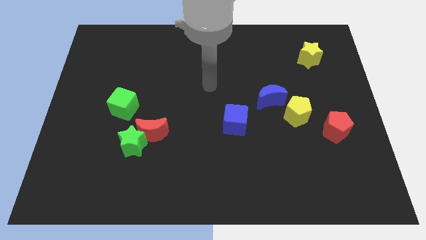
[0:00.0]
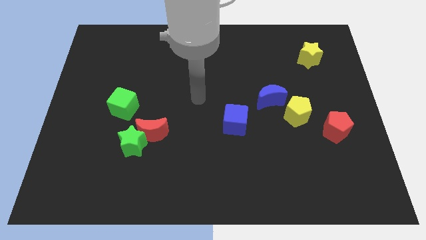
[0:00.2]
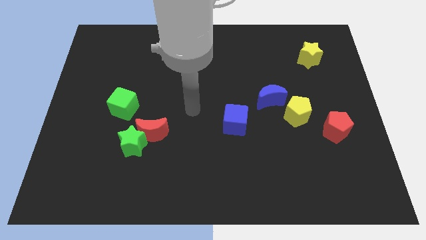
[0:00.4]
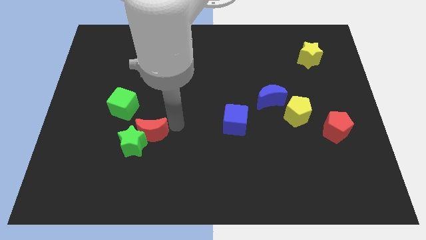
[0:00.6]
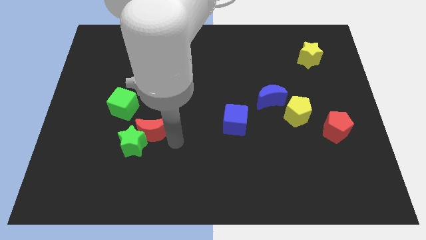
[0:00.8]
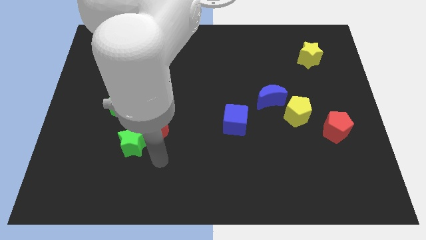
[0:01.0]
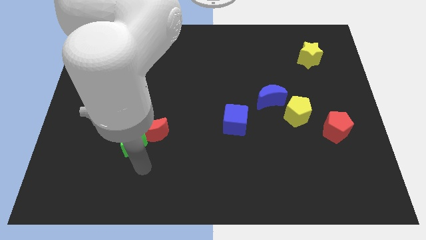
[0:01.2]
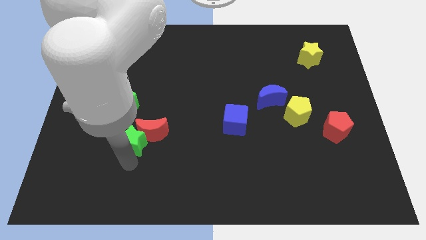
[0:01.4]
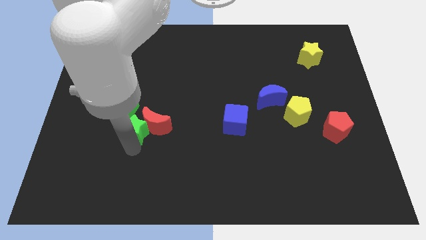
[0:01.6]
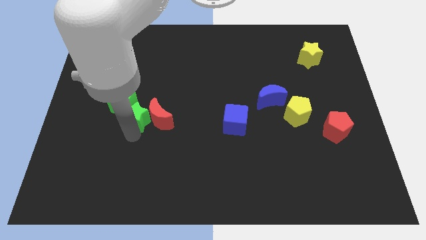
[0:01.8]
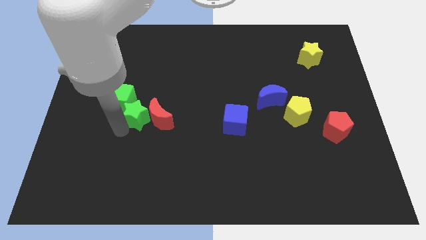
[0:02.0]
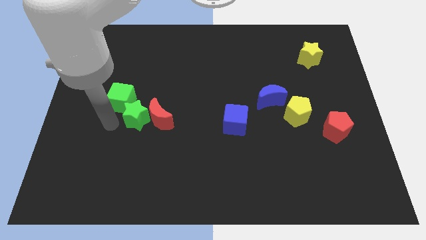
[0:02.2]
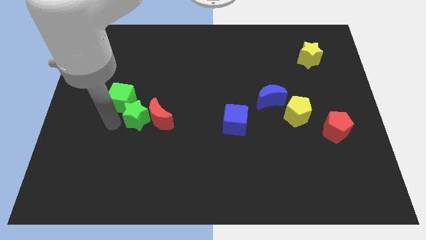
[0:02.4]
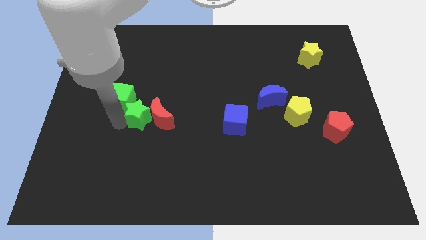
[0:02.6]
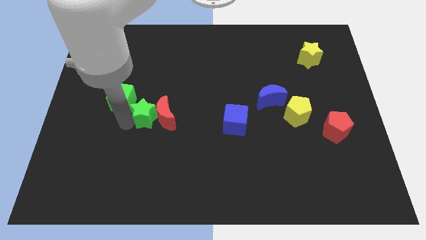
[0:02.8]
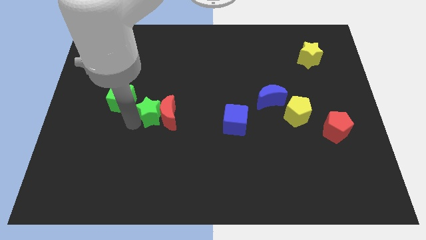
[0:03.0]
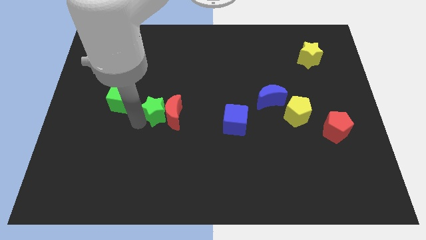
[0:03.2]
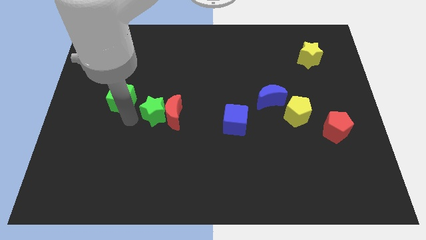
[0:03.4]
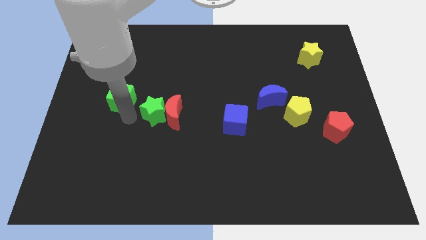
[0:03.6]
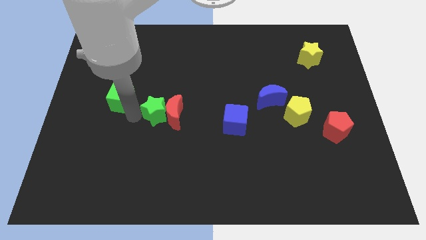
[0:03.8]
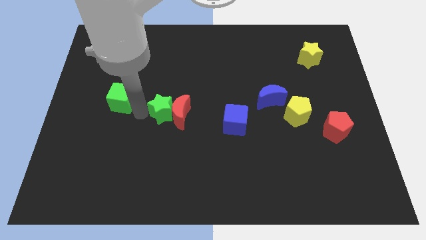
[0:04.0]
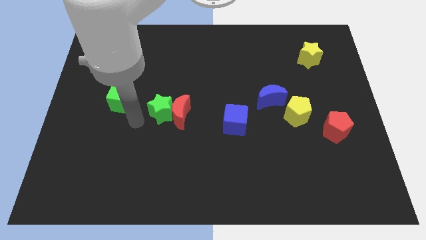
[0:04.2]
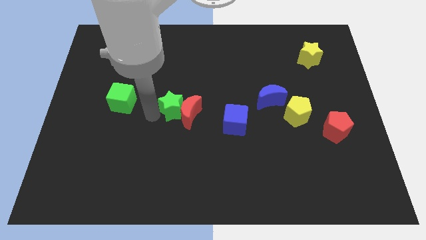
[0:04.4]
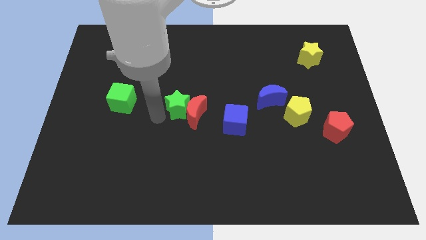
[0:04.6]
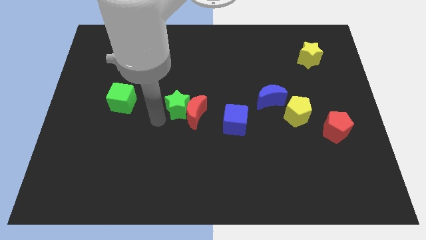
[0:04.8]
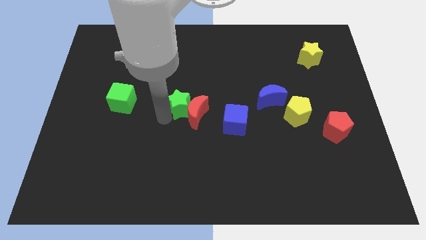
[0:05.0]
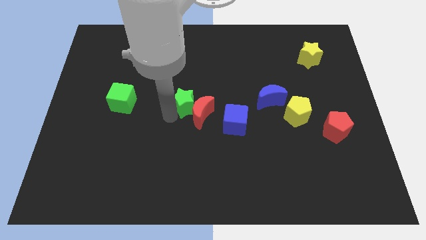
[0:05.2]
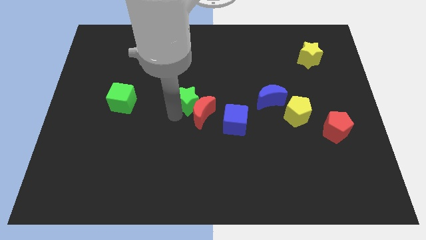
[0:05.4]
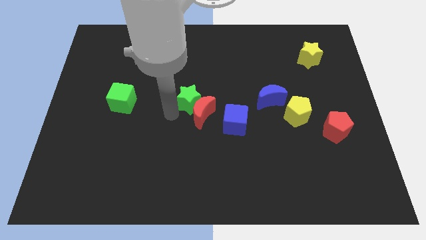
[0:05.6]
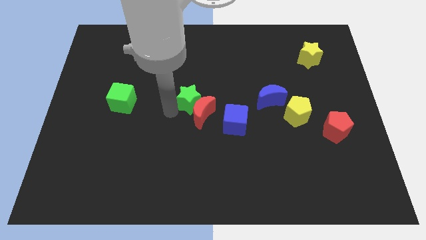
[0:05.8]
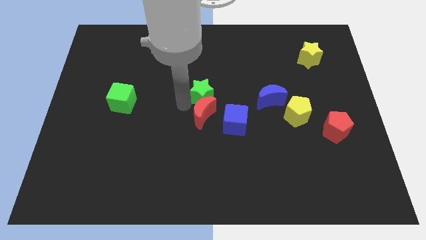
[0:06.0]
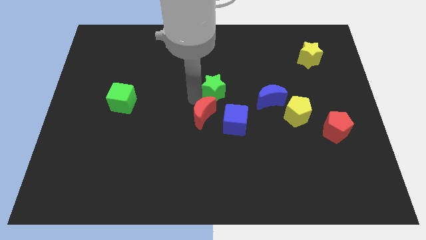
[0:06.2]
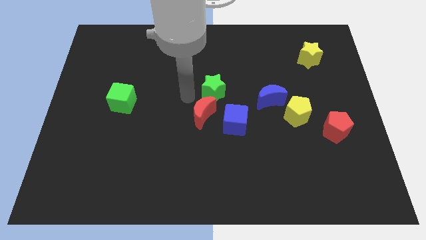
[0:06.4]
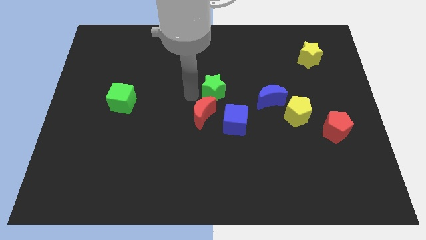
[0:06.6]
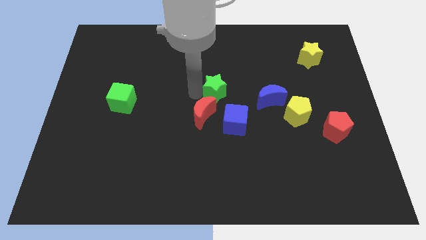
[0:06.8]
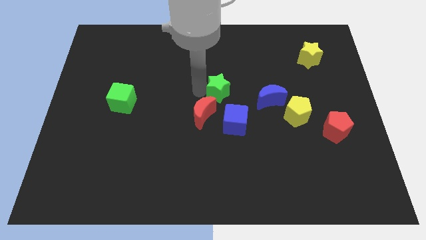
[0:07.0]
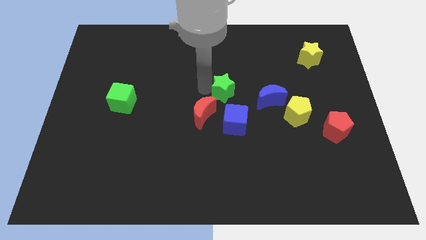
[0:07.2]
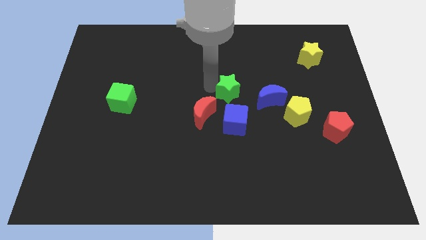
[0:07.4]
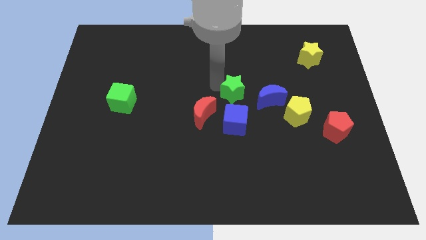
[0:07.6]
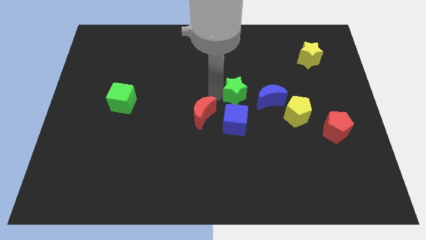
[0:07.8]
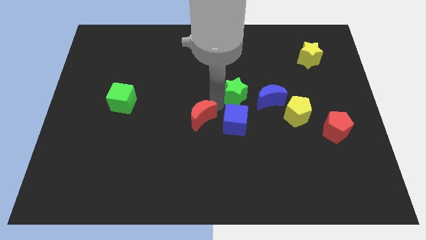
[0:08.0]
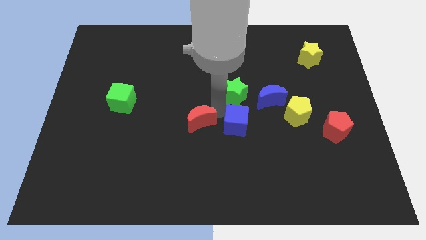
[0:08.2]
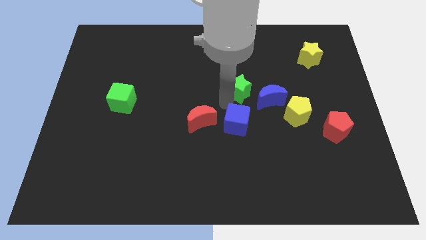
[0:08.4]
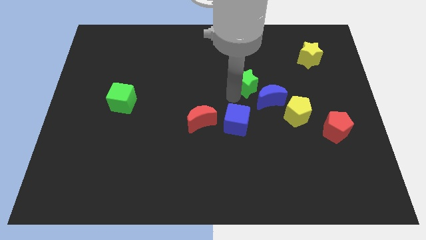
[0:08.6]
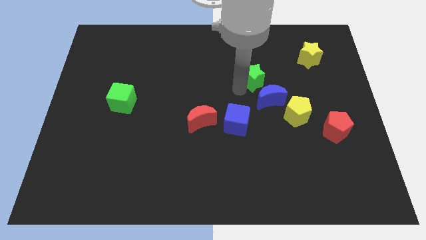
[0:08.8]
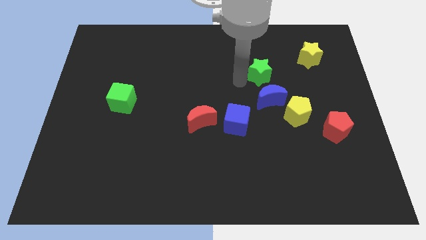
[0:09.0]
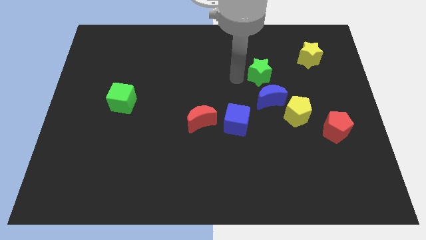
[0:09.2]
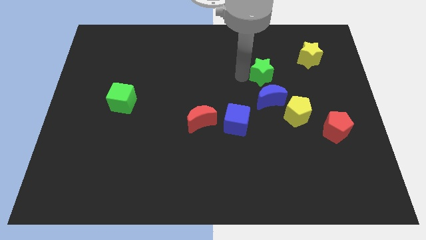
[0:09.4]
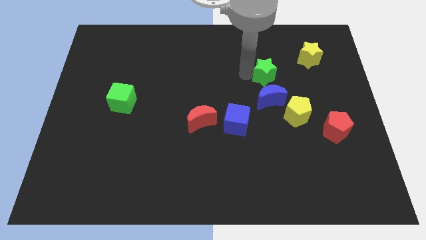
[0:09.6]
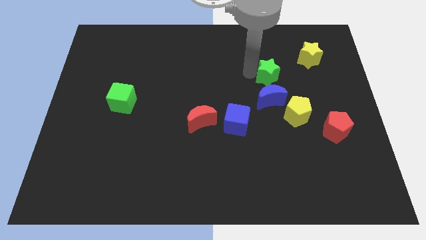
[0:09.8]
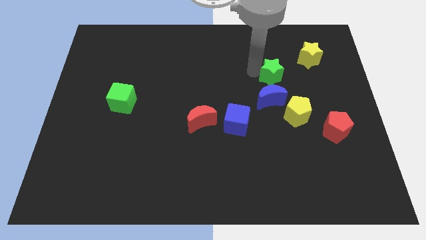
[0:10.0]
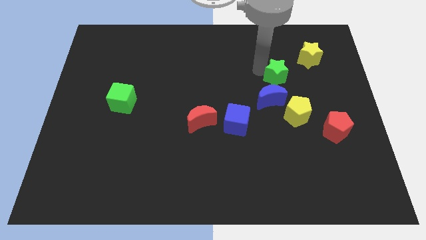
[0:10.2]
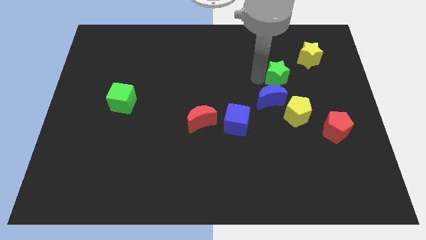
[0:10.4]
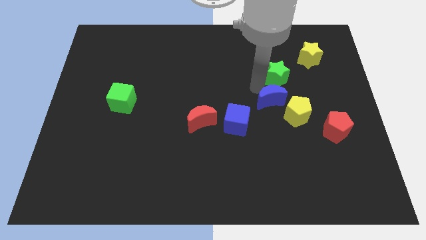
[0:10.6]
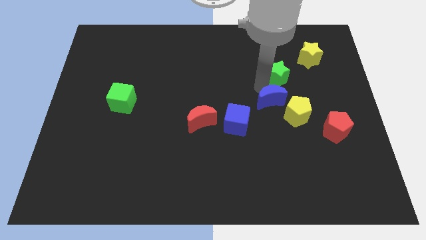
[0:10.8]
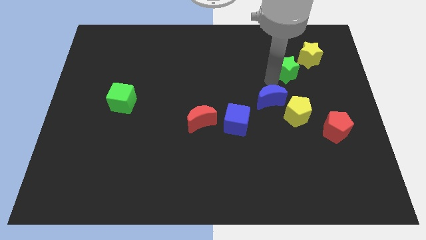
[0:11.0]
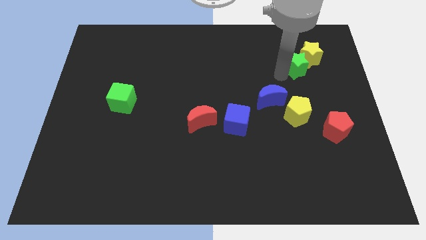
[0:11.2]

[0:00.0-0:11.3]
move the green star close to the yellow star

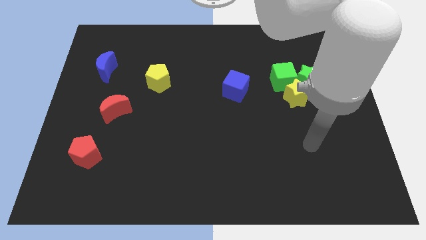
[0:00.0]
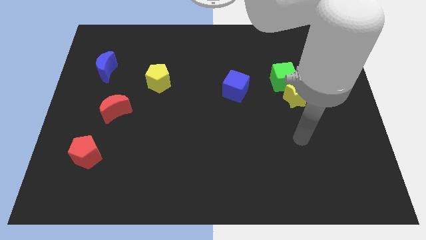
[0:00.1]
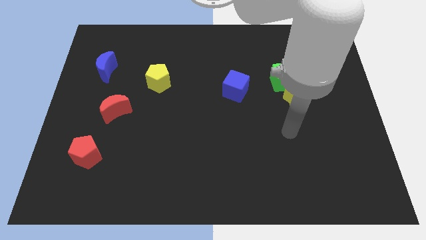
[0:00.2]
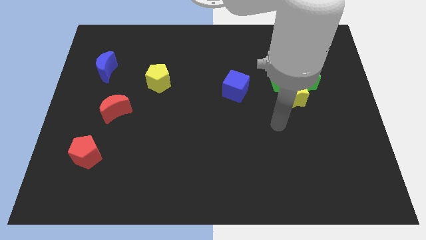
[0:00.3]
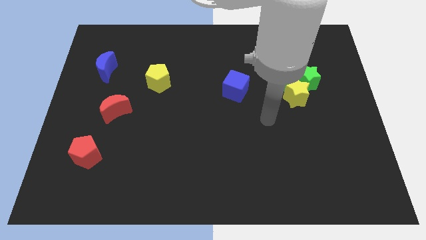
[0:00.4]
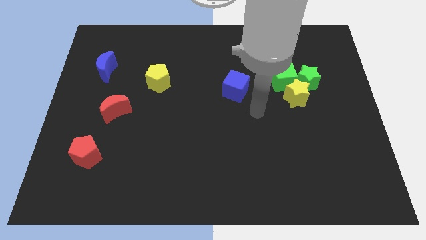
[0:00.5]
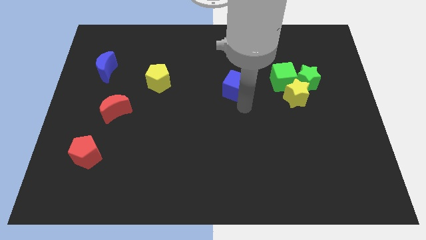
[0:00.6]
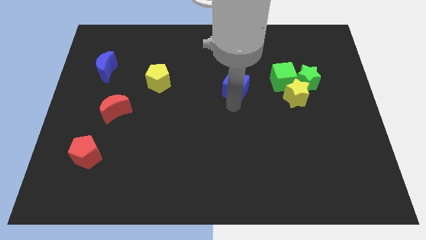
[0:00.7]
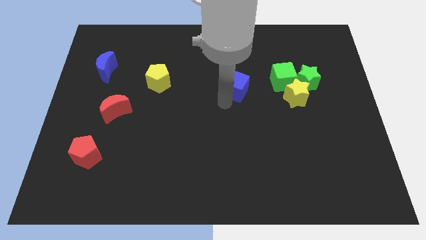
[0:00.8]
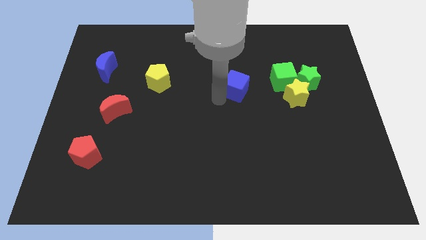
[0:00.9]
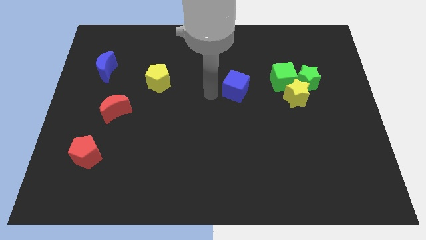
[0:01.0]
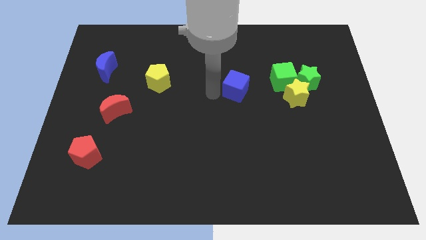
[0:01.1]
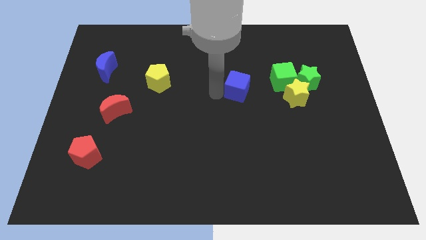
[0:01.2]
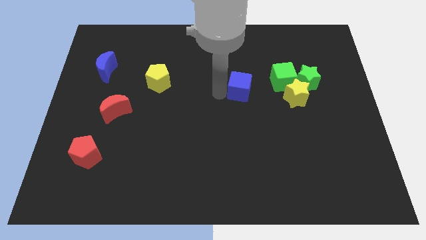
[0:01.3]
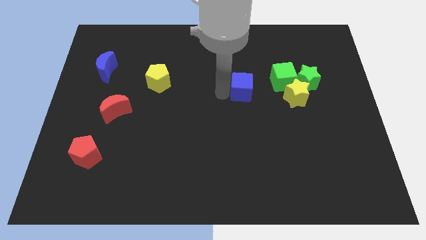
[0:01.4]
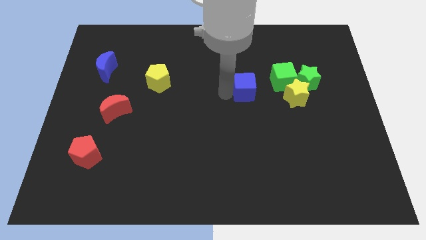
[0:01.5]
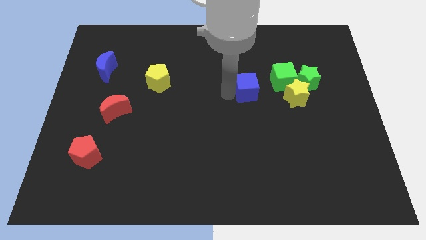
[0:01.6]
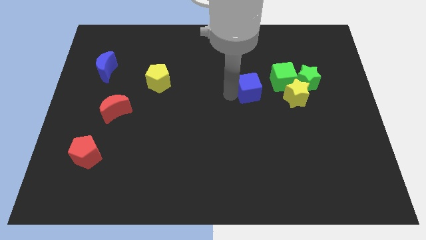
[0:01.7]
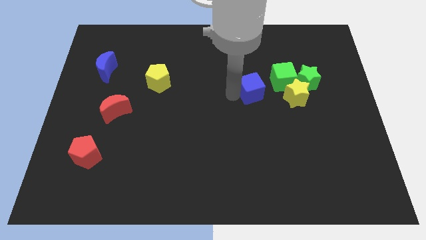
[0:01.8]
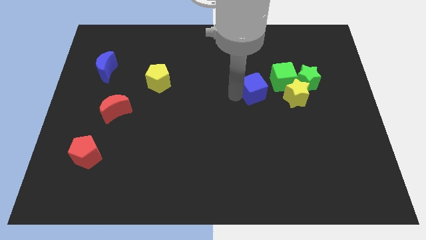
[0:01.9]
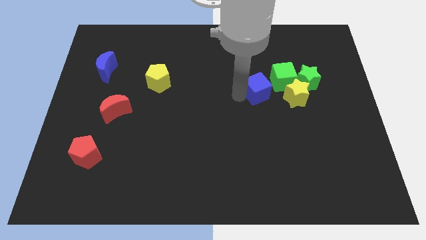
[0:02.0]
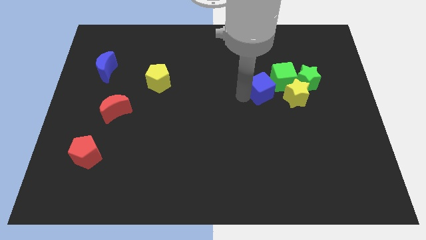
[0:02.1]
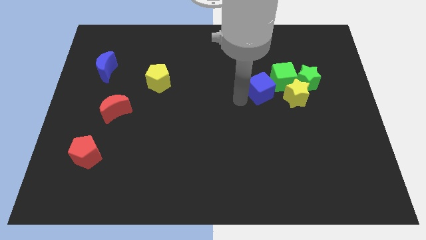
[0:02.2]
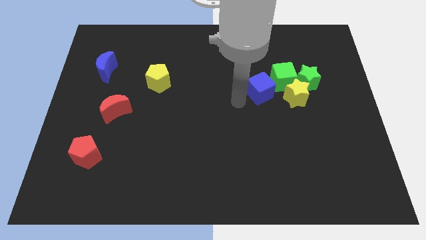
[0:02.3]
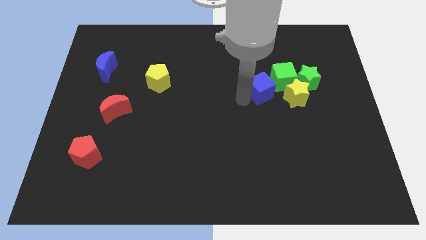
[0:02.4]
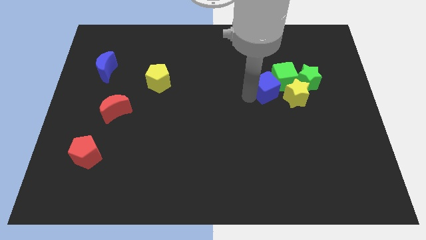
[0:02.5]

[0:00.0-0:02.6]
push the blue cube close to the green cube
